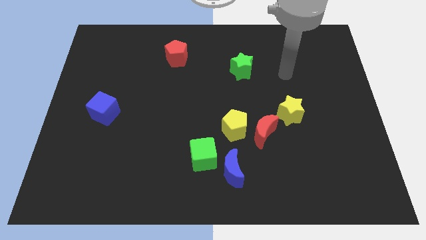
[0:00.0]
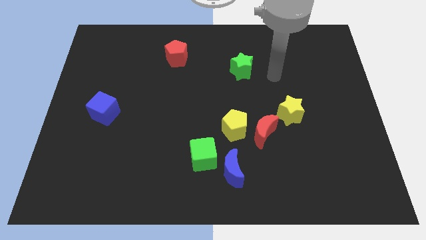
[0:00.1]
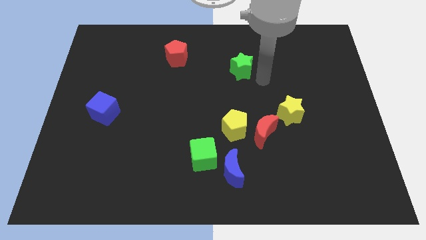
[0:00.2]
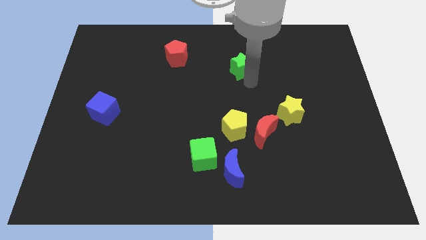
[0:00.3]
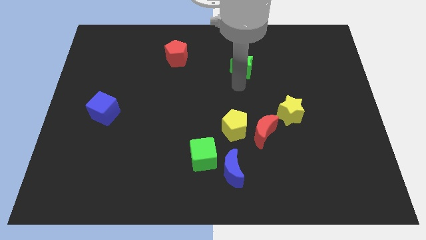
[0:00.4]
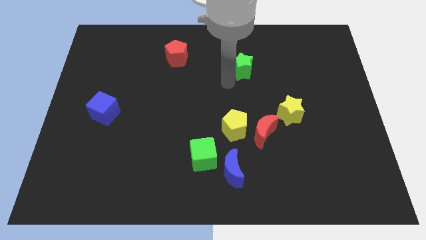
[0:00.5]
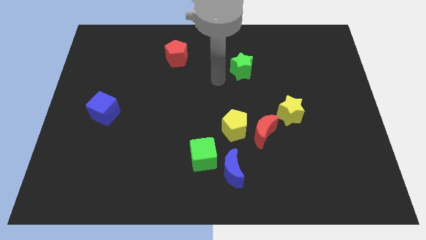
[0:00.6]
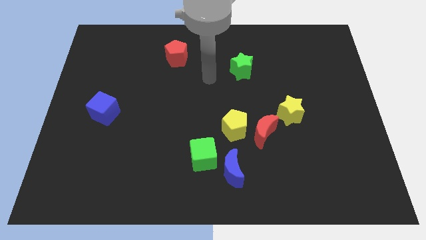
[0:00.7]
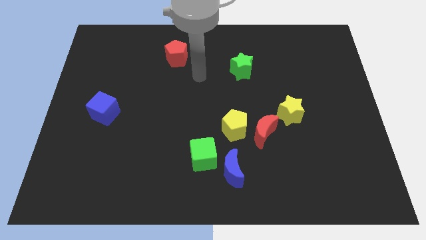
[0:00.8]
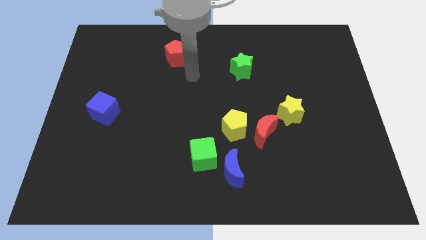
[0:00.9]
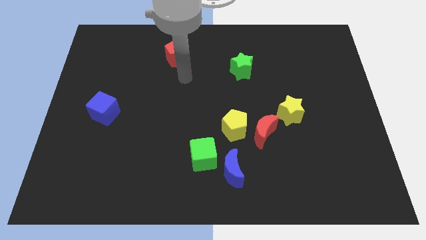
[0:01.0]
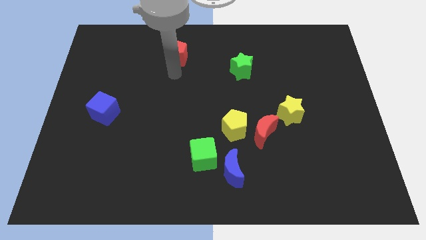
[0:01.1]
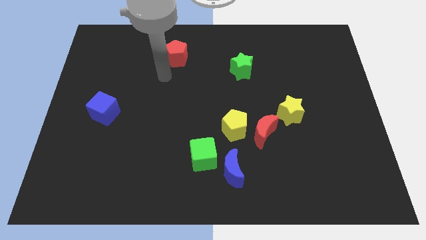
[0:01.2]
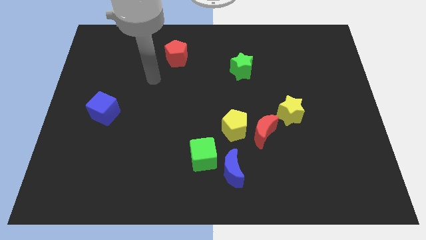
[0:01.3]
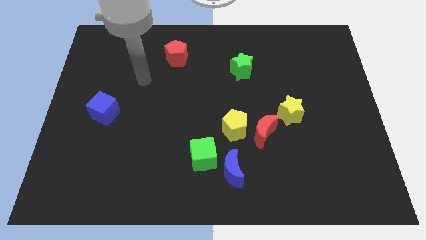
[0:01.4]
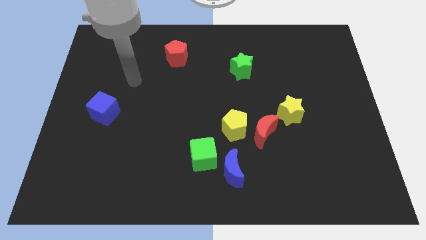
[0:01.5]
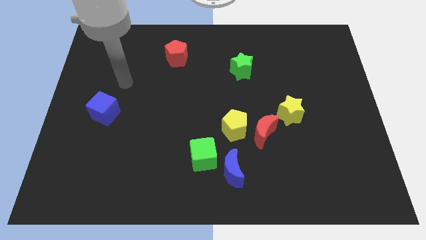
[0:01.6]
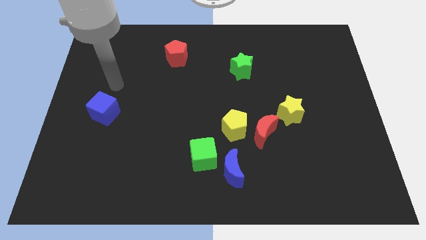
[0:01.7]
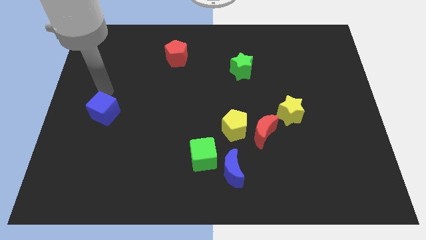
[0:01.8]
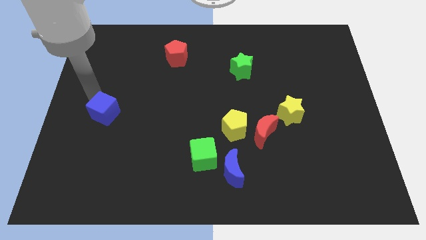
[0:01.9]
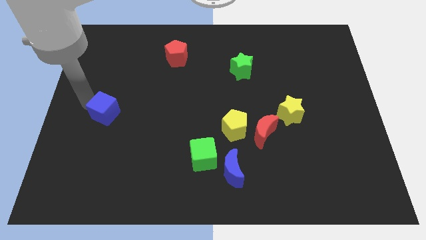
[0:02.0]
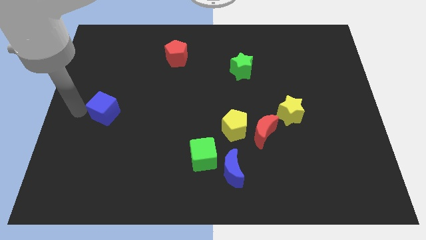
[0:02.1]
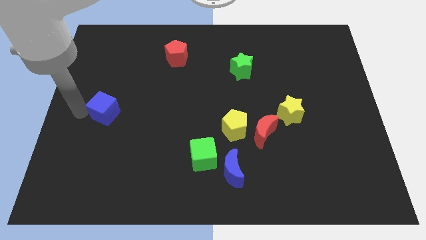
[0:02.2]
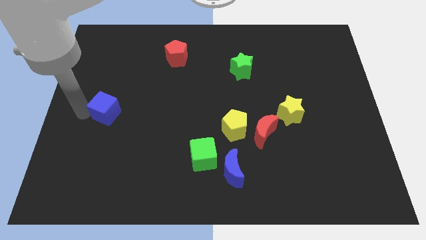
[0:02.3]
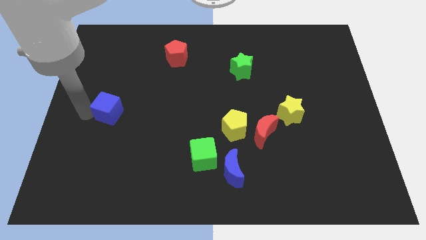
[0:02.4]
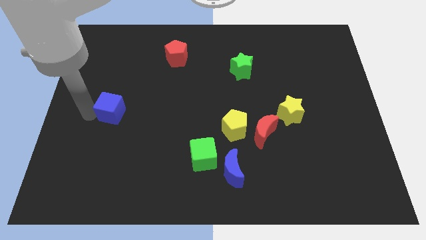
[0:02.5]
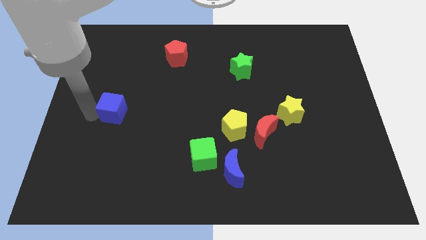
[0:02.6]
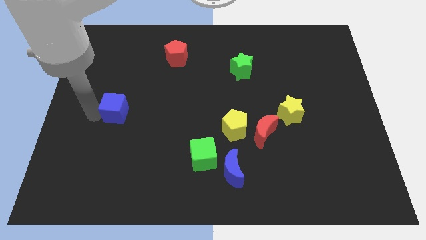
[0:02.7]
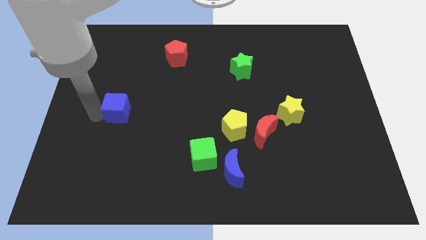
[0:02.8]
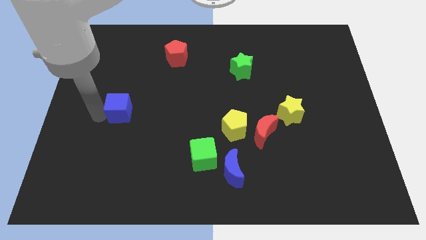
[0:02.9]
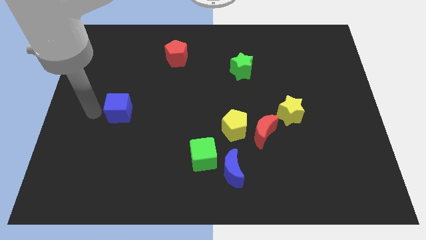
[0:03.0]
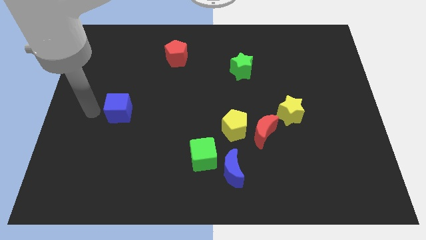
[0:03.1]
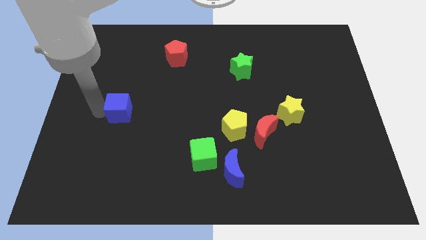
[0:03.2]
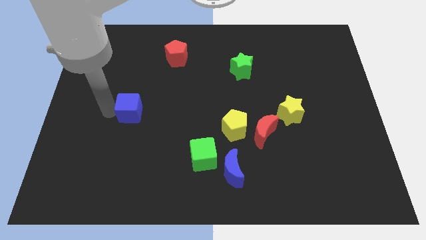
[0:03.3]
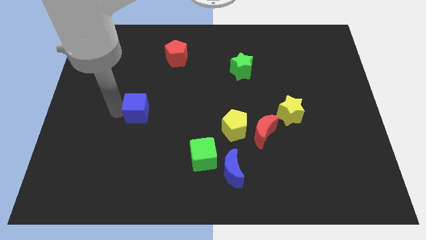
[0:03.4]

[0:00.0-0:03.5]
push the blue cube right slightly

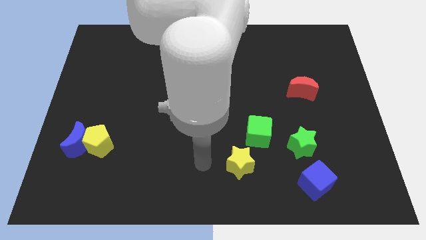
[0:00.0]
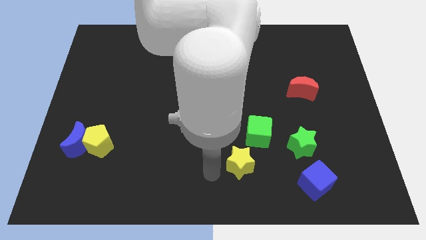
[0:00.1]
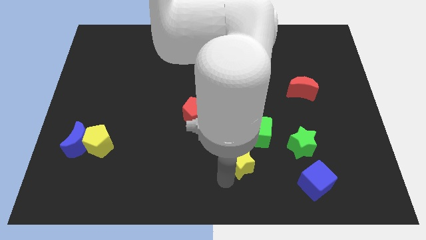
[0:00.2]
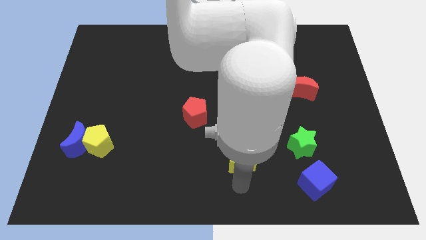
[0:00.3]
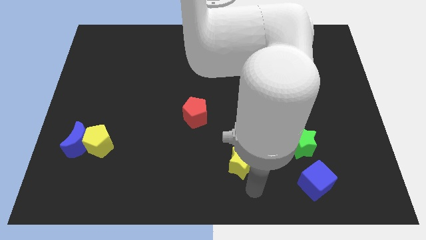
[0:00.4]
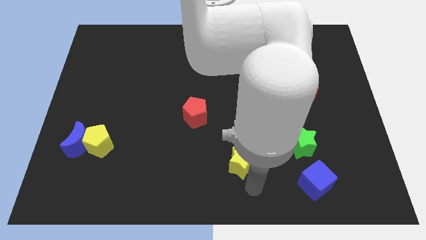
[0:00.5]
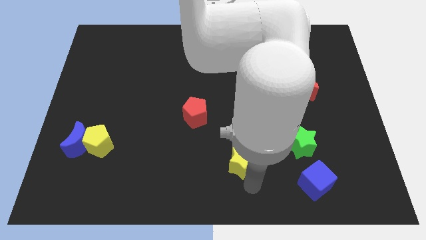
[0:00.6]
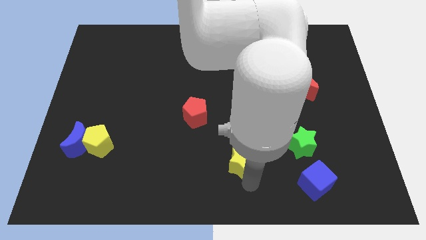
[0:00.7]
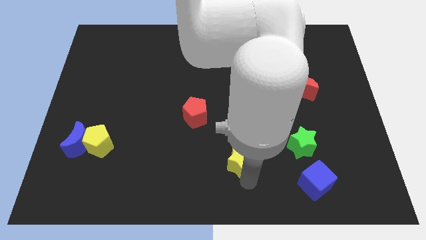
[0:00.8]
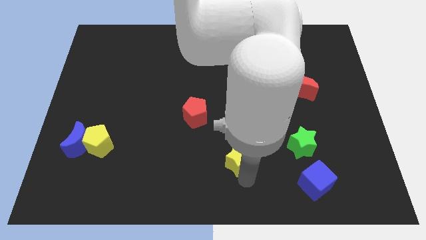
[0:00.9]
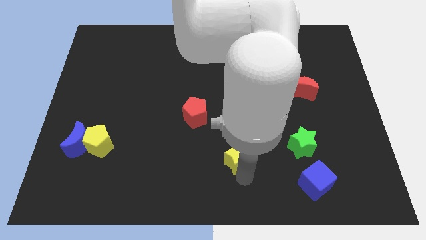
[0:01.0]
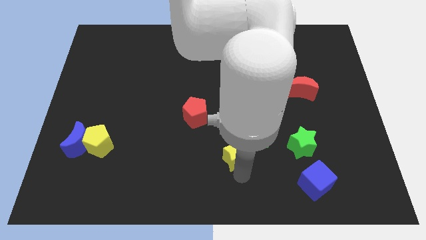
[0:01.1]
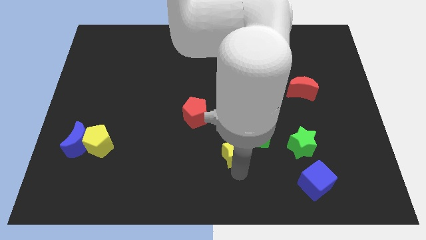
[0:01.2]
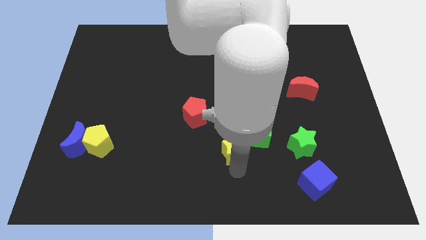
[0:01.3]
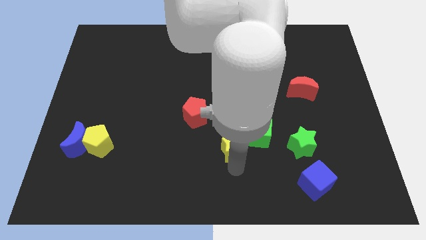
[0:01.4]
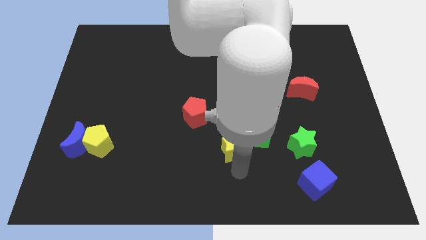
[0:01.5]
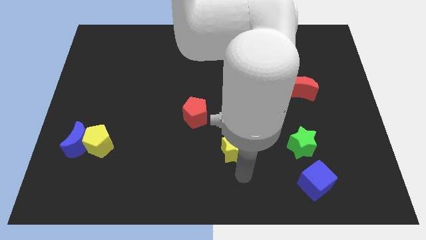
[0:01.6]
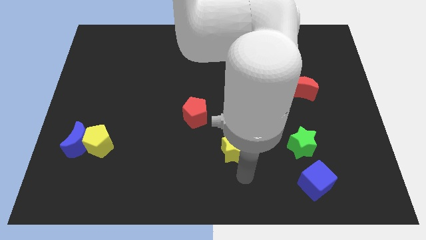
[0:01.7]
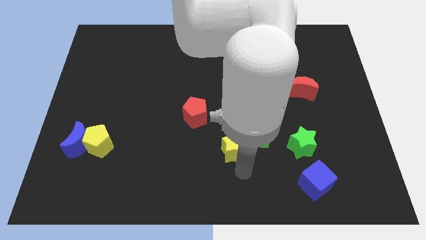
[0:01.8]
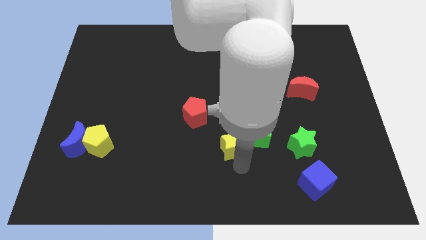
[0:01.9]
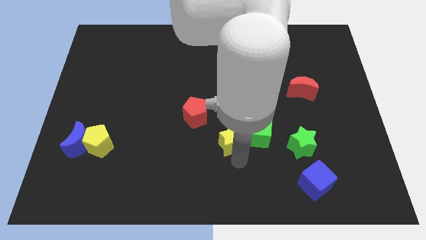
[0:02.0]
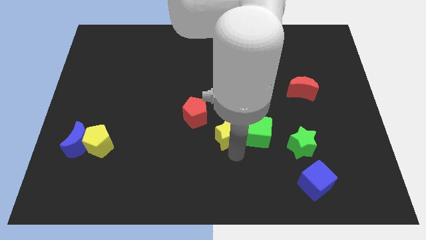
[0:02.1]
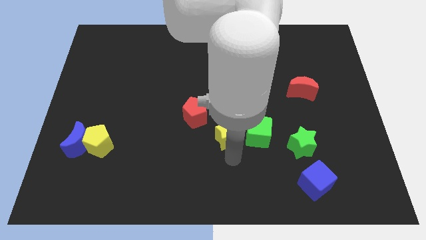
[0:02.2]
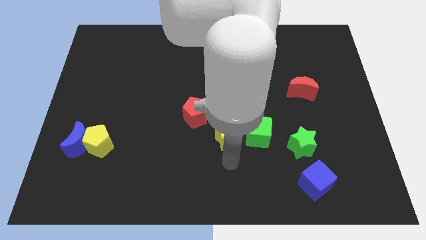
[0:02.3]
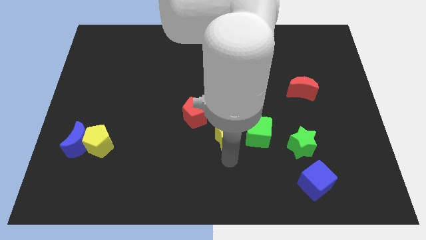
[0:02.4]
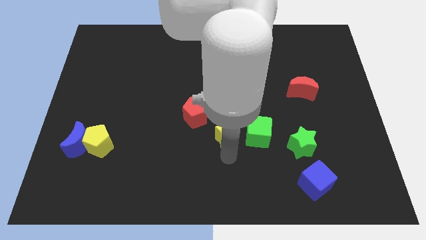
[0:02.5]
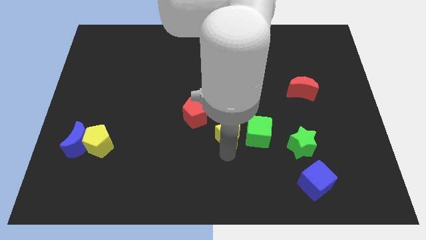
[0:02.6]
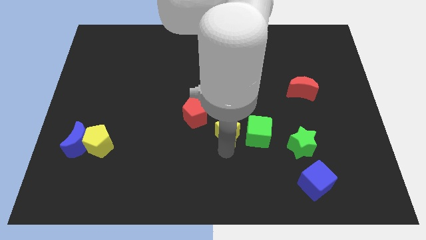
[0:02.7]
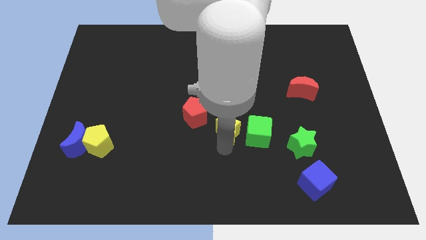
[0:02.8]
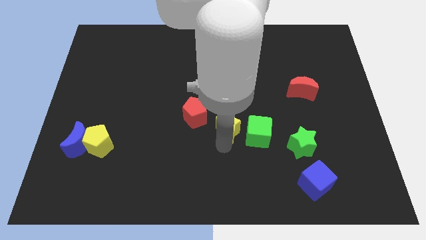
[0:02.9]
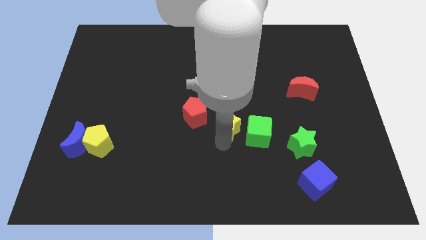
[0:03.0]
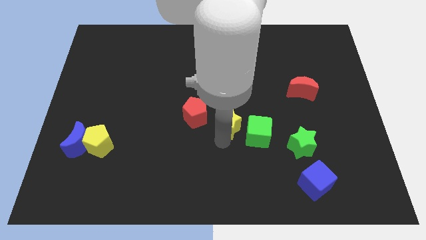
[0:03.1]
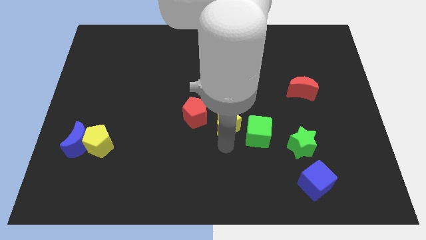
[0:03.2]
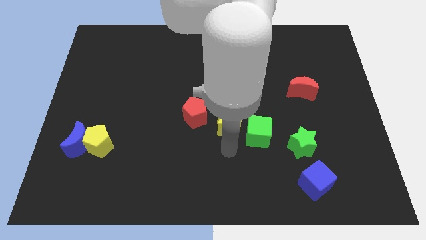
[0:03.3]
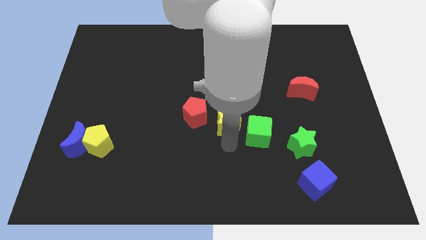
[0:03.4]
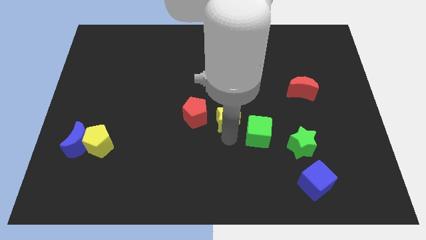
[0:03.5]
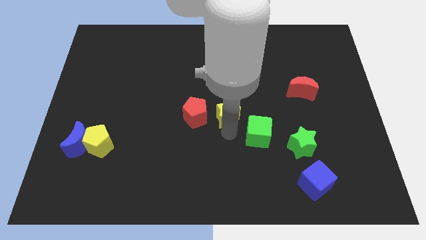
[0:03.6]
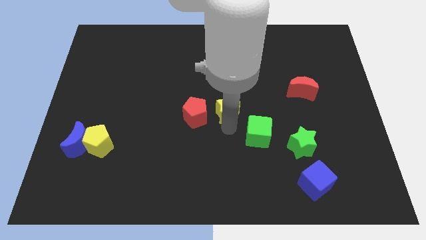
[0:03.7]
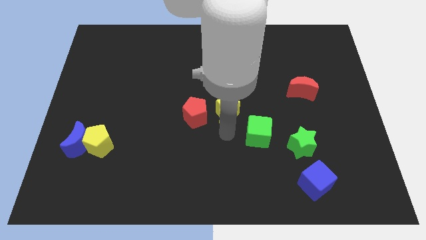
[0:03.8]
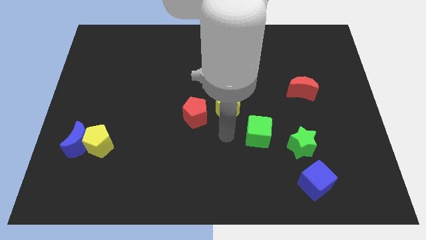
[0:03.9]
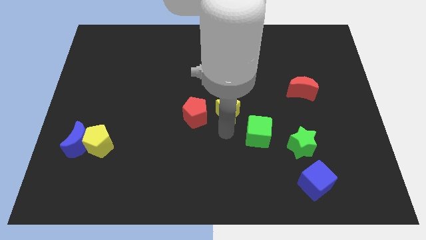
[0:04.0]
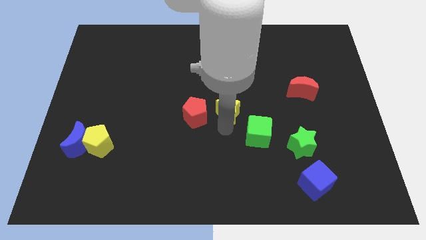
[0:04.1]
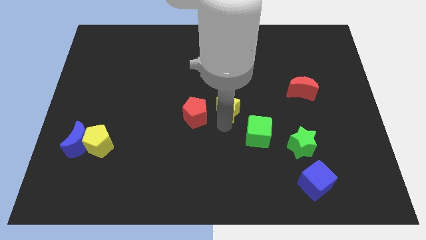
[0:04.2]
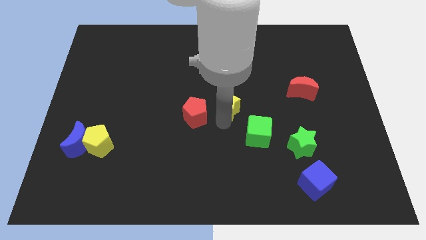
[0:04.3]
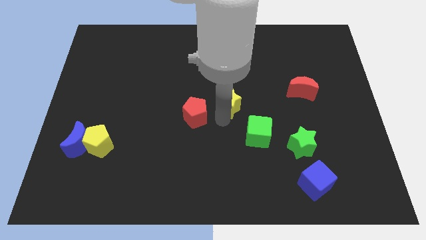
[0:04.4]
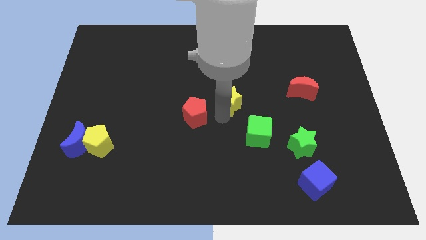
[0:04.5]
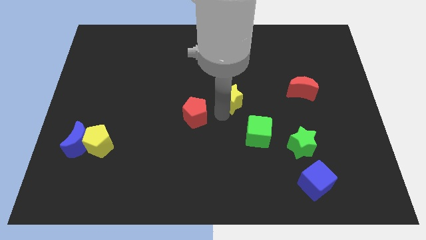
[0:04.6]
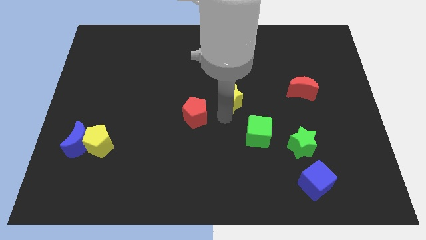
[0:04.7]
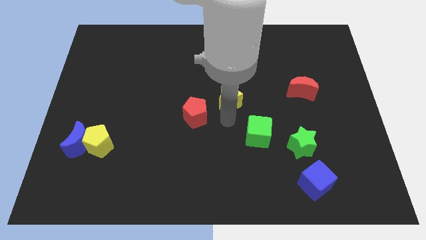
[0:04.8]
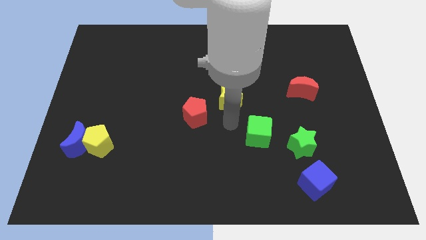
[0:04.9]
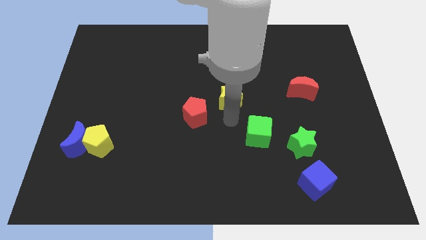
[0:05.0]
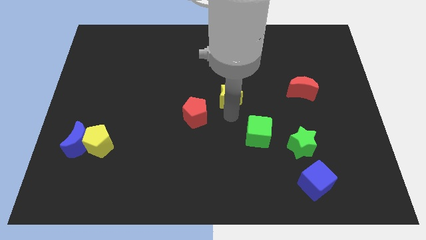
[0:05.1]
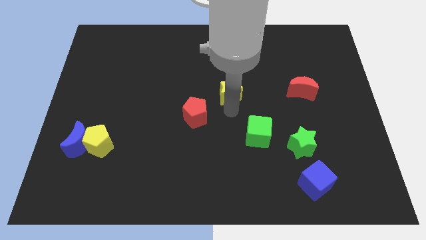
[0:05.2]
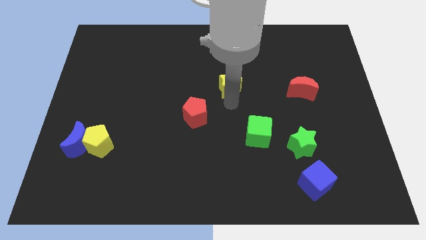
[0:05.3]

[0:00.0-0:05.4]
move the yellow star upwards
